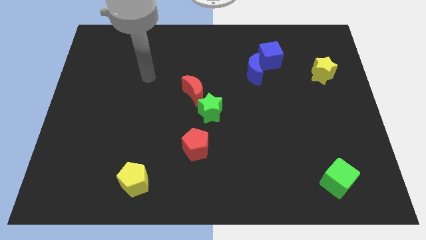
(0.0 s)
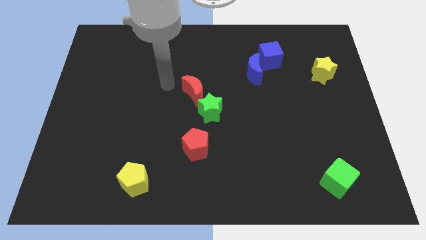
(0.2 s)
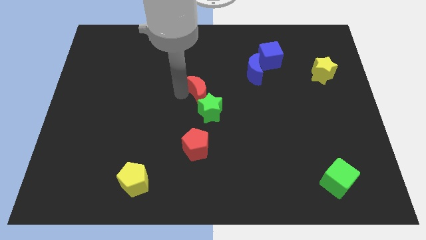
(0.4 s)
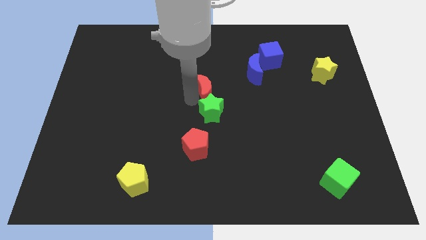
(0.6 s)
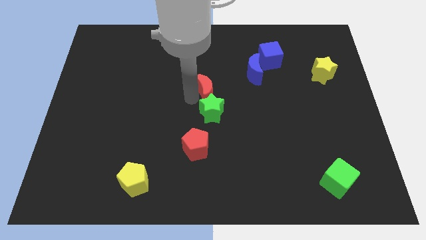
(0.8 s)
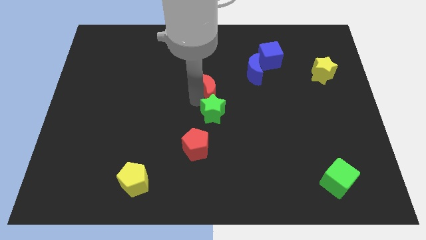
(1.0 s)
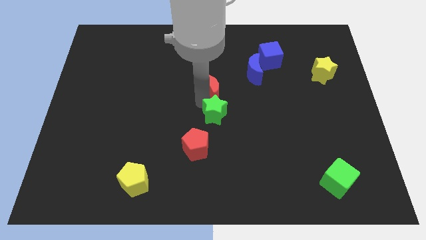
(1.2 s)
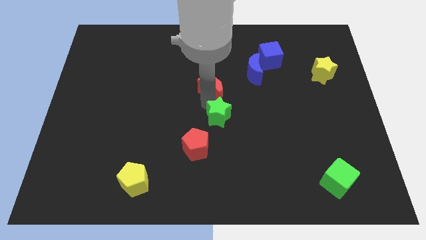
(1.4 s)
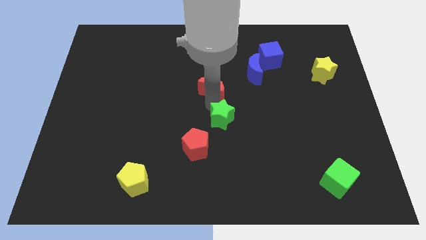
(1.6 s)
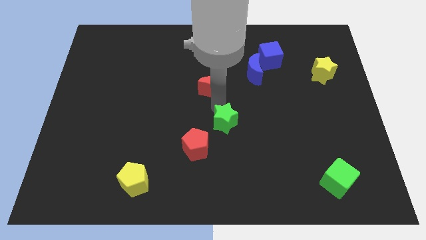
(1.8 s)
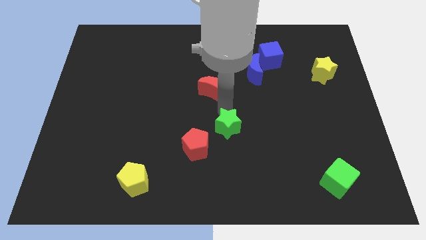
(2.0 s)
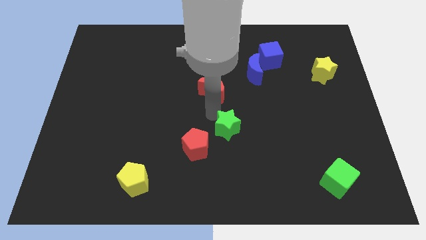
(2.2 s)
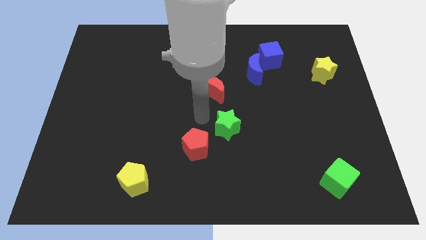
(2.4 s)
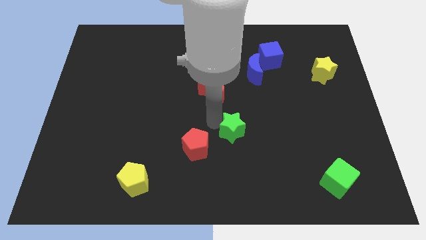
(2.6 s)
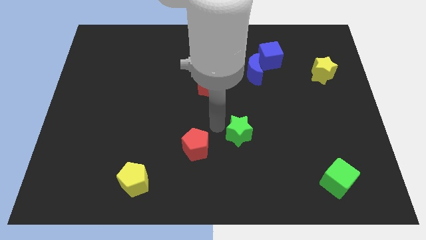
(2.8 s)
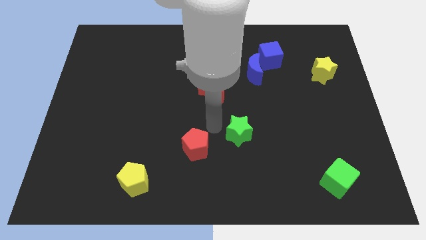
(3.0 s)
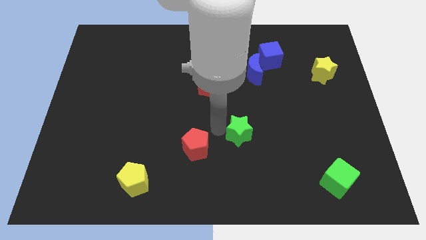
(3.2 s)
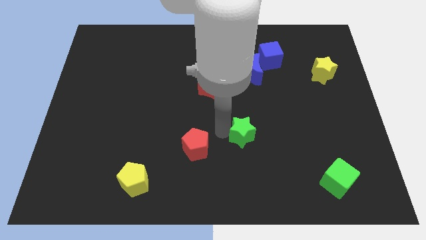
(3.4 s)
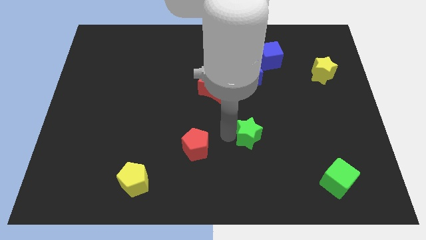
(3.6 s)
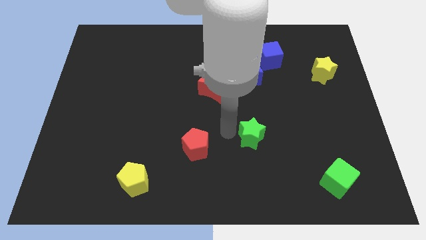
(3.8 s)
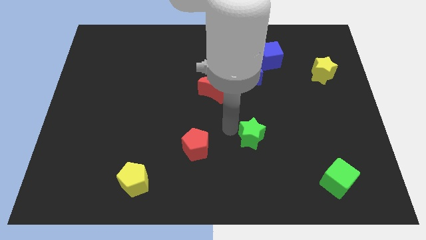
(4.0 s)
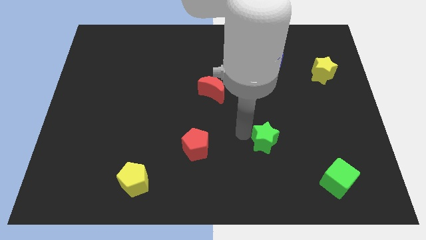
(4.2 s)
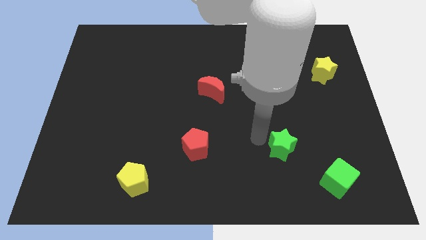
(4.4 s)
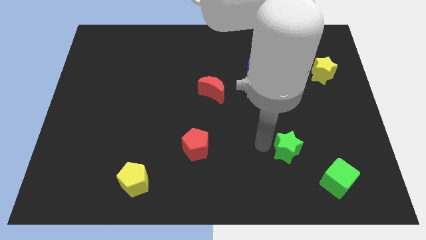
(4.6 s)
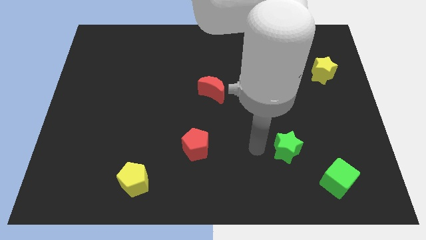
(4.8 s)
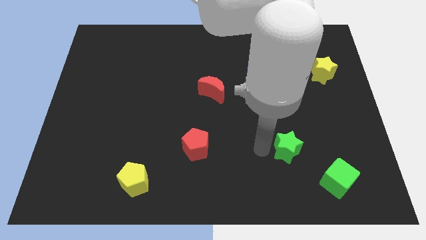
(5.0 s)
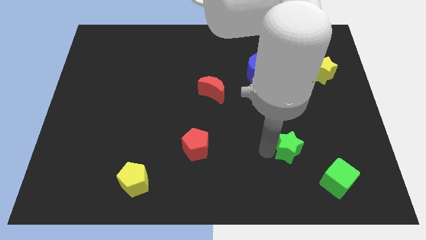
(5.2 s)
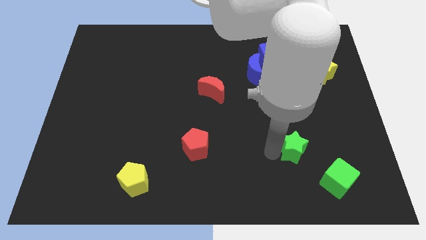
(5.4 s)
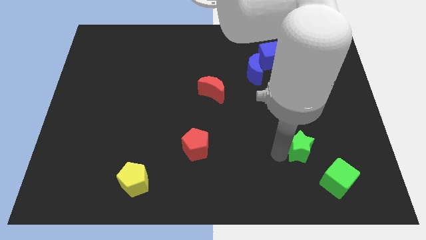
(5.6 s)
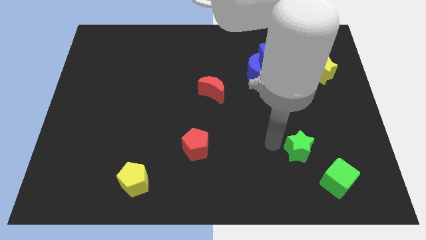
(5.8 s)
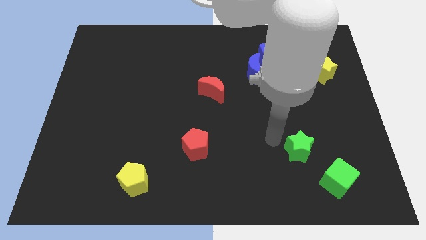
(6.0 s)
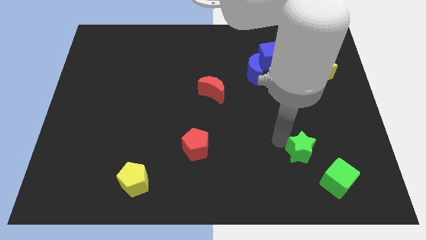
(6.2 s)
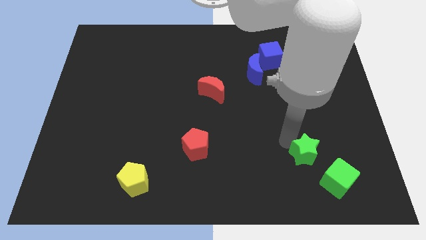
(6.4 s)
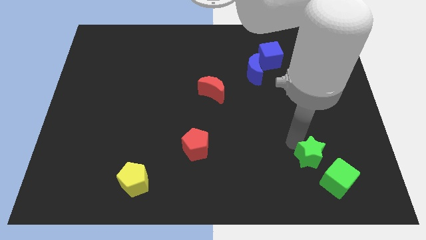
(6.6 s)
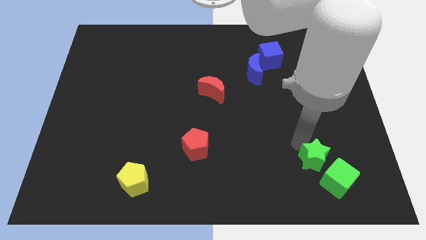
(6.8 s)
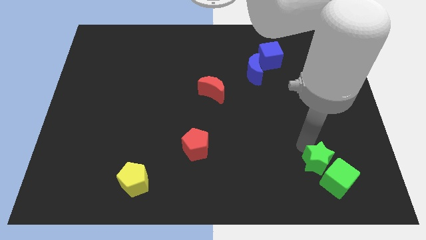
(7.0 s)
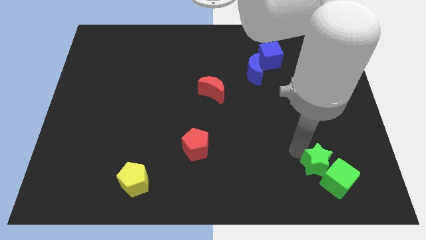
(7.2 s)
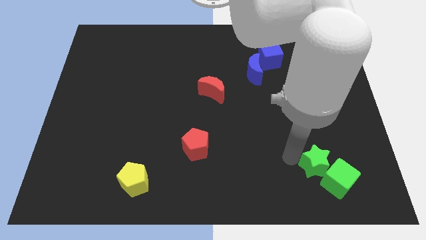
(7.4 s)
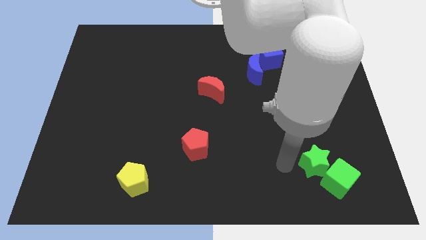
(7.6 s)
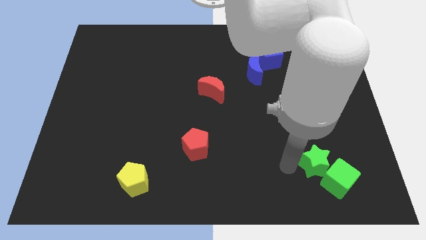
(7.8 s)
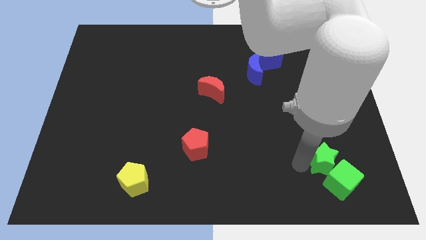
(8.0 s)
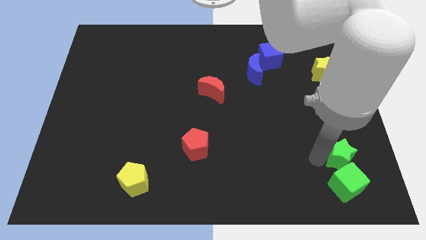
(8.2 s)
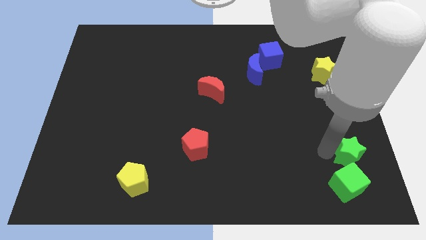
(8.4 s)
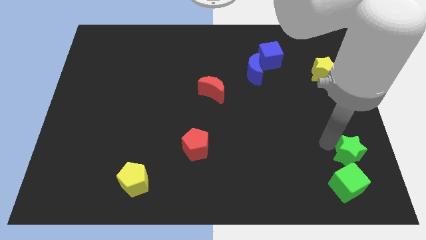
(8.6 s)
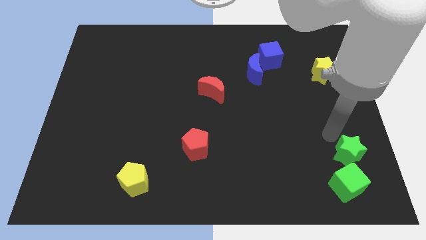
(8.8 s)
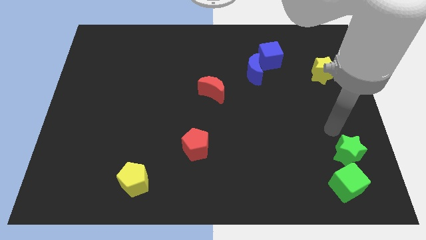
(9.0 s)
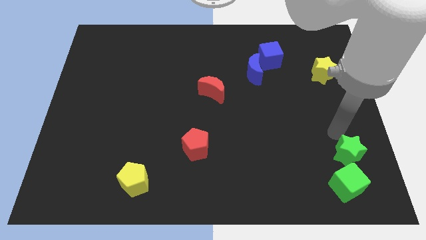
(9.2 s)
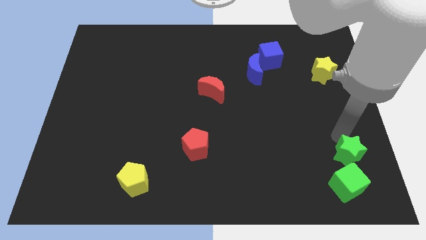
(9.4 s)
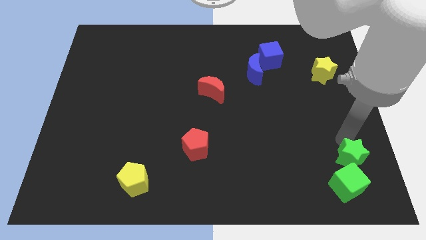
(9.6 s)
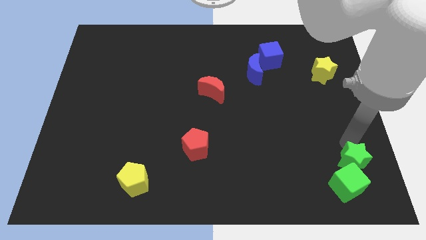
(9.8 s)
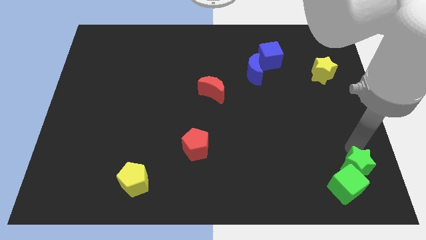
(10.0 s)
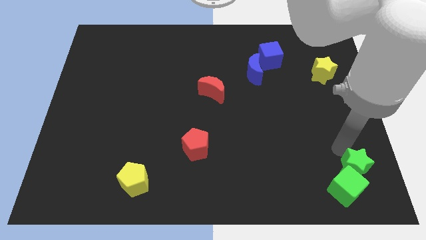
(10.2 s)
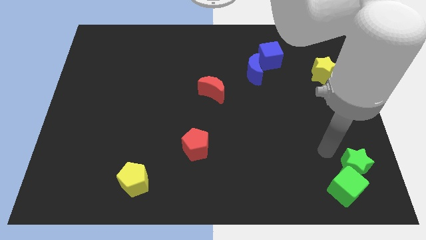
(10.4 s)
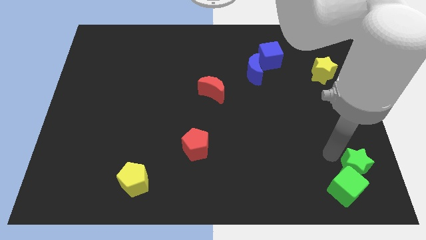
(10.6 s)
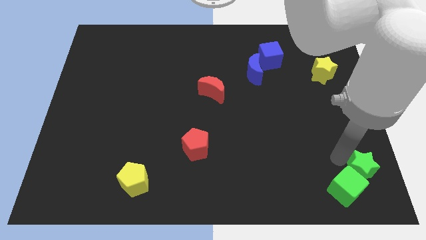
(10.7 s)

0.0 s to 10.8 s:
slide the green star to the lower right corner
